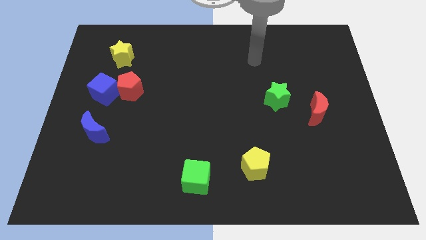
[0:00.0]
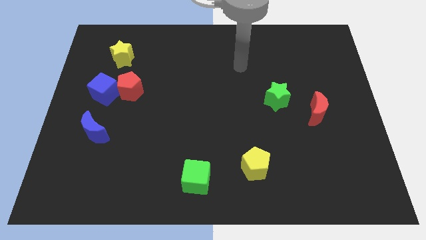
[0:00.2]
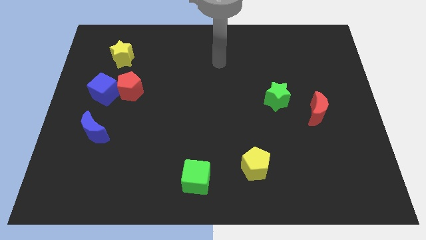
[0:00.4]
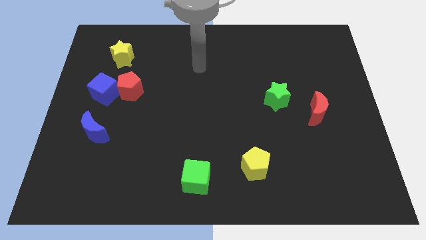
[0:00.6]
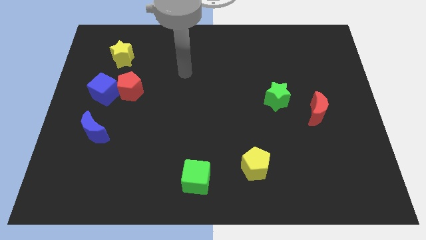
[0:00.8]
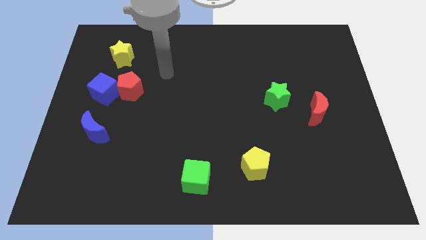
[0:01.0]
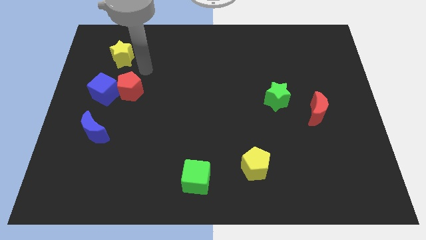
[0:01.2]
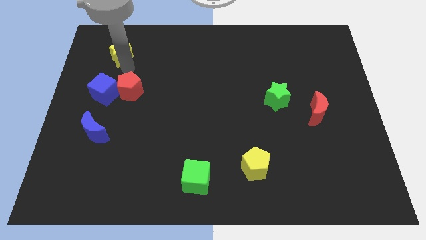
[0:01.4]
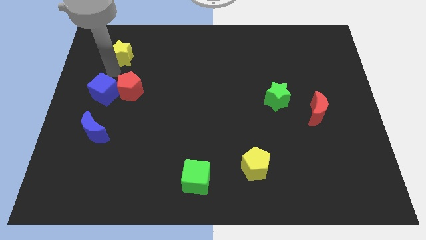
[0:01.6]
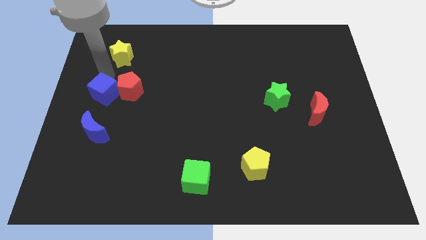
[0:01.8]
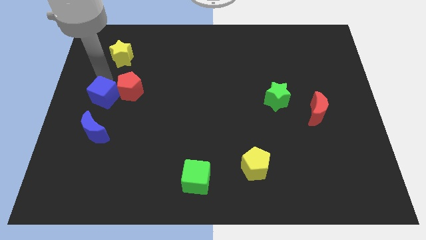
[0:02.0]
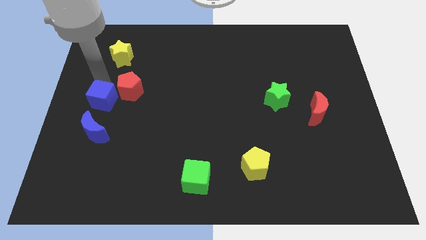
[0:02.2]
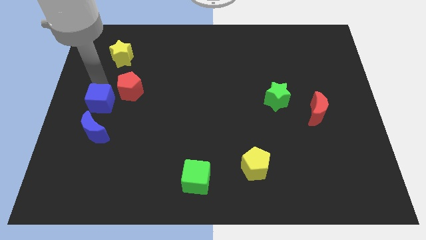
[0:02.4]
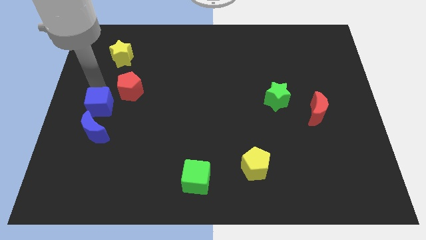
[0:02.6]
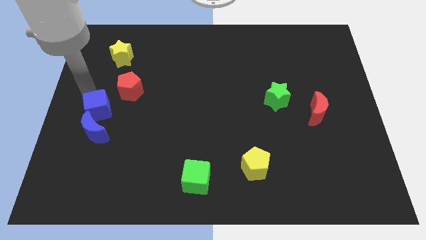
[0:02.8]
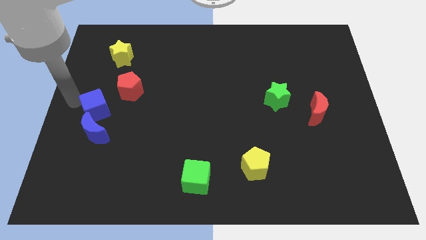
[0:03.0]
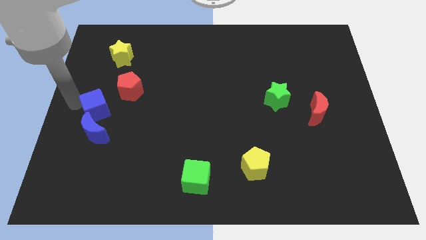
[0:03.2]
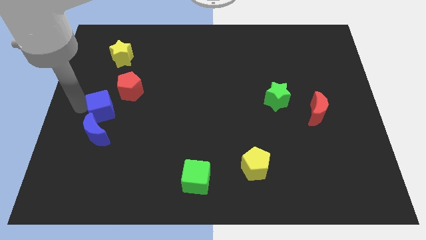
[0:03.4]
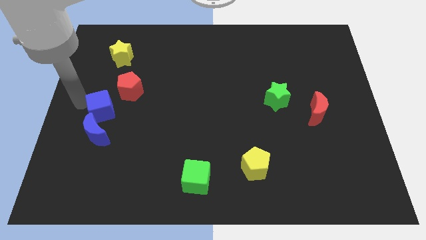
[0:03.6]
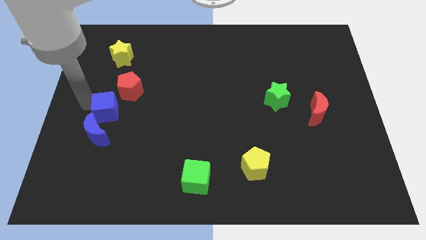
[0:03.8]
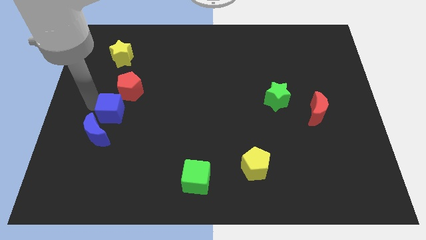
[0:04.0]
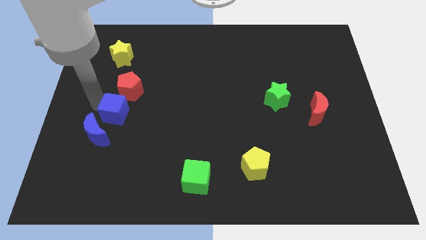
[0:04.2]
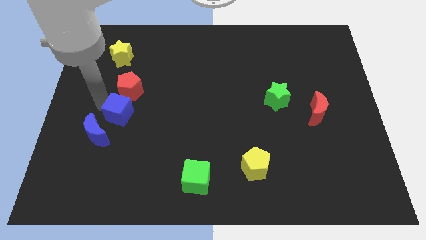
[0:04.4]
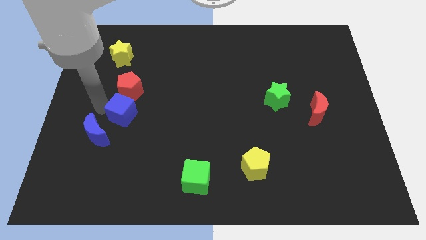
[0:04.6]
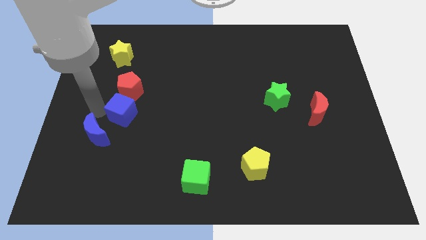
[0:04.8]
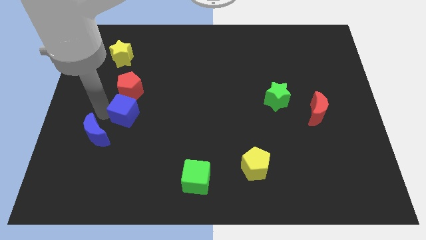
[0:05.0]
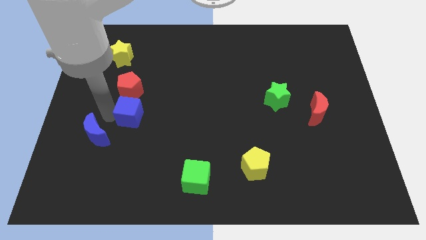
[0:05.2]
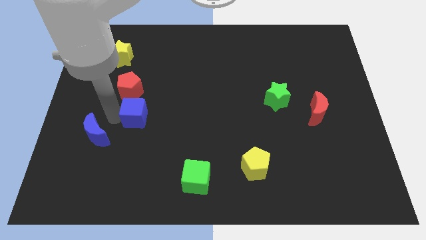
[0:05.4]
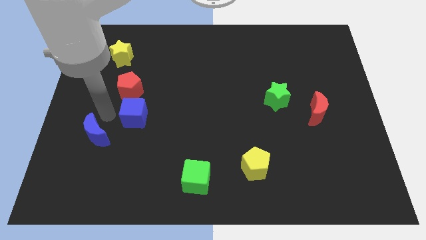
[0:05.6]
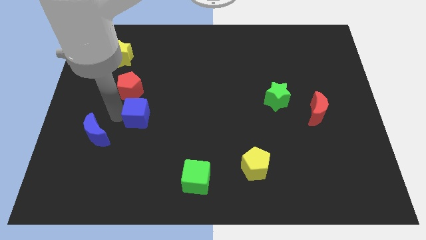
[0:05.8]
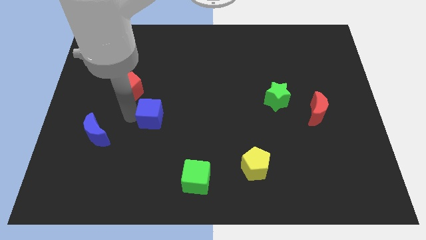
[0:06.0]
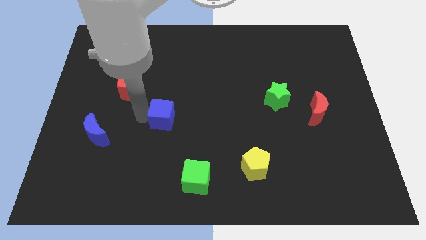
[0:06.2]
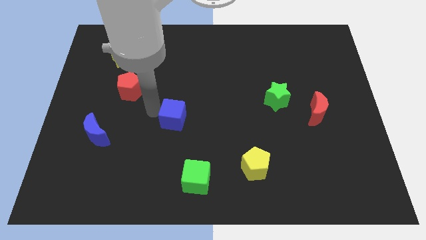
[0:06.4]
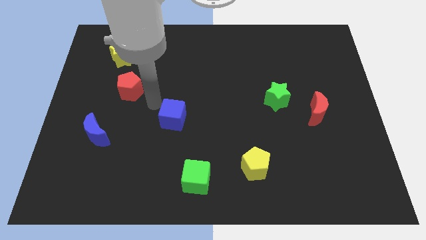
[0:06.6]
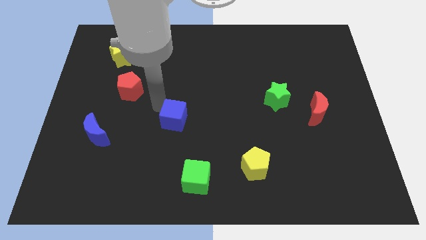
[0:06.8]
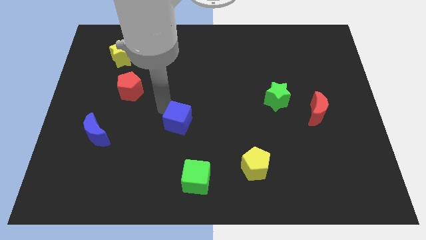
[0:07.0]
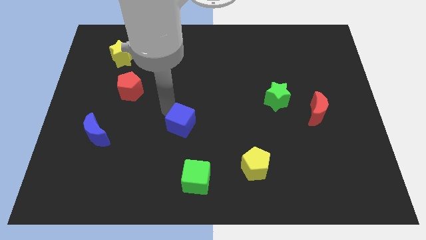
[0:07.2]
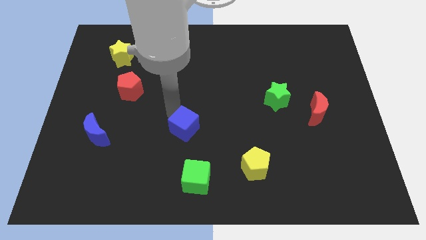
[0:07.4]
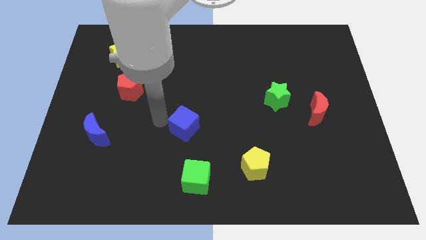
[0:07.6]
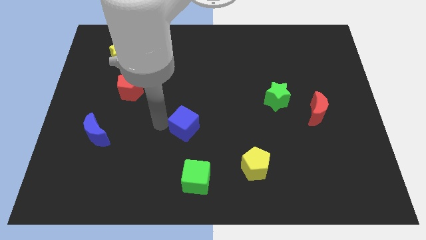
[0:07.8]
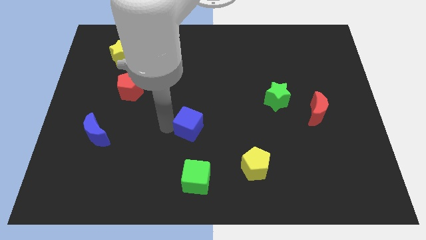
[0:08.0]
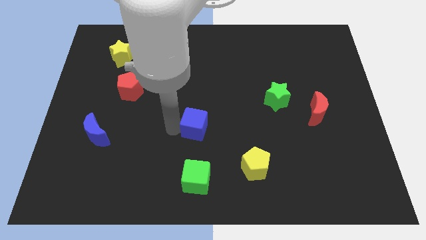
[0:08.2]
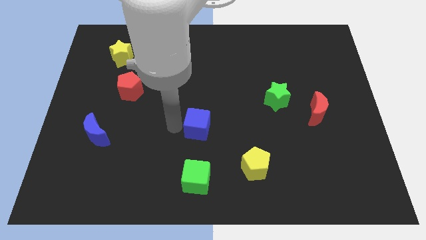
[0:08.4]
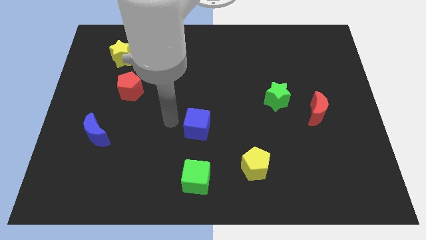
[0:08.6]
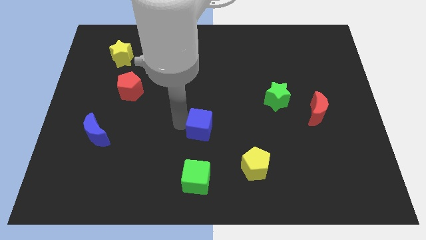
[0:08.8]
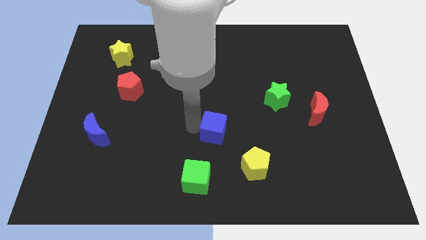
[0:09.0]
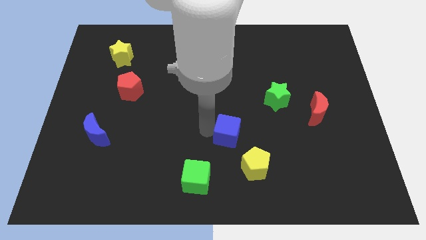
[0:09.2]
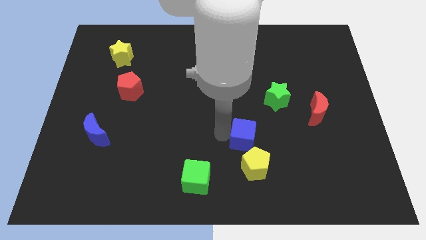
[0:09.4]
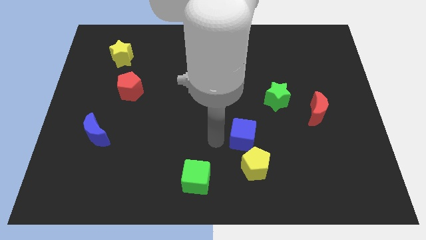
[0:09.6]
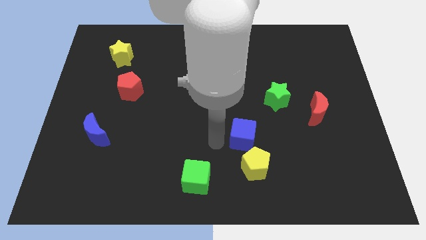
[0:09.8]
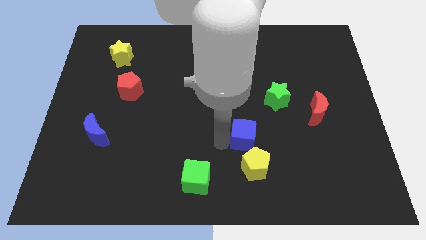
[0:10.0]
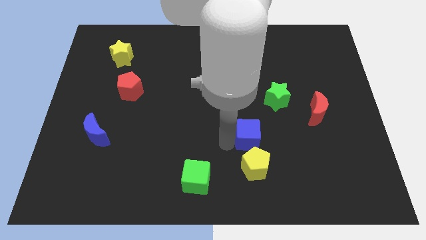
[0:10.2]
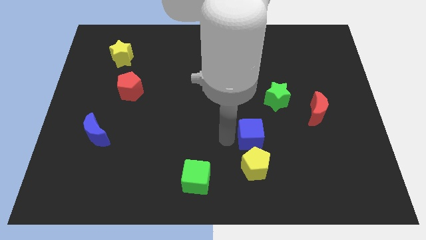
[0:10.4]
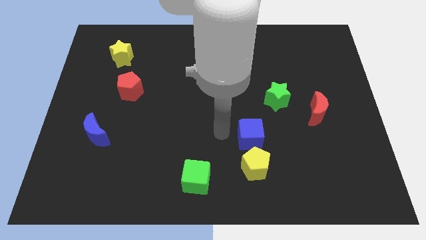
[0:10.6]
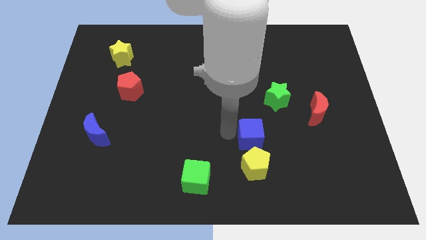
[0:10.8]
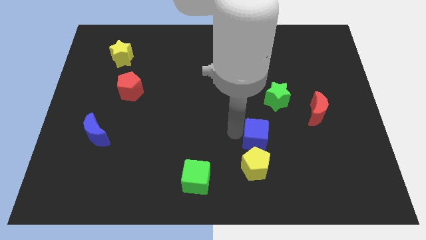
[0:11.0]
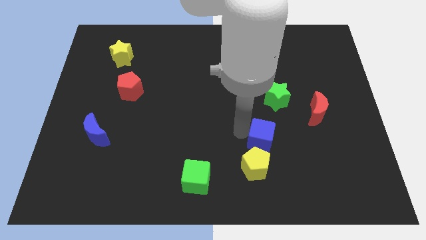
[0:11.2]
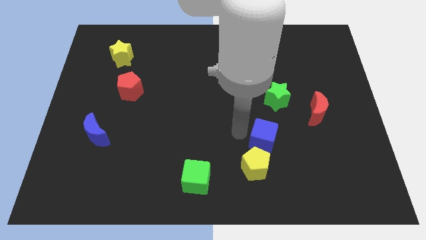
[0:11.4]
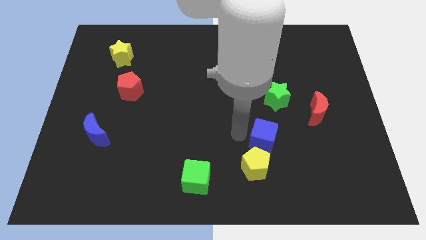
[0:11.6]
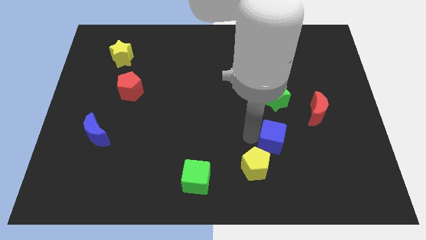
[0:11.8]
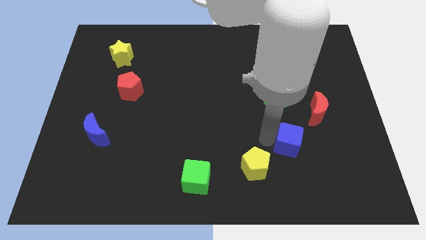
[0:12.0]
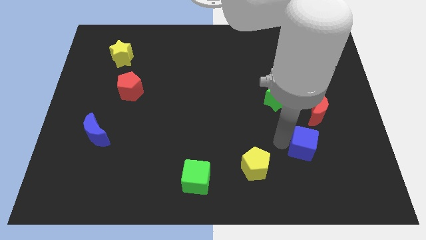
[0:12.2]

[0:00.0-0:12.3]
put the blue cube to the bottom side of the red moon

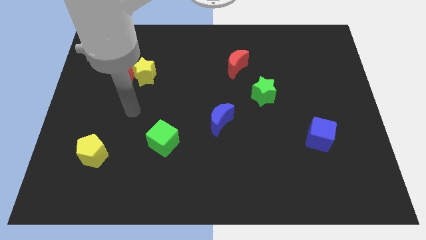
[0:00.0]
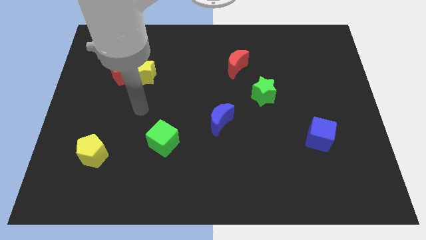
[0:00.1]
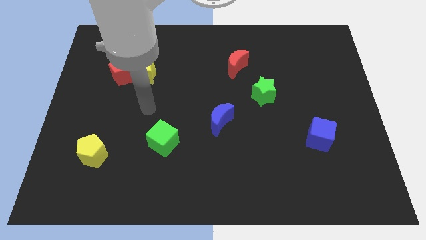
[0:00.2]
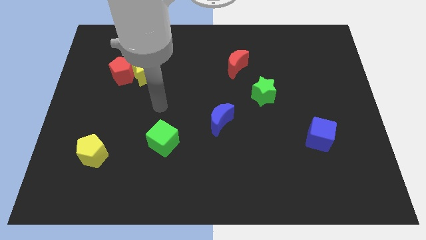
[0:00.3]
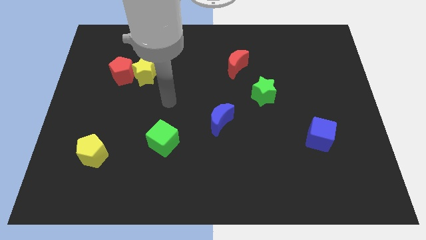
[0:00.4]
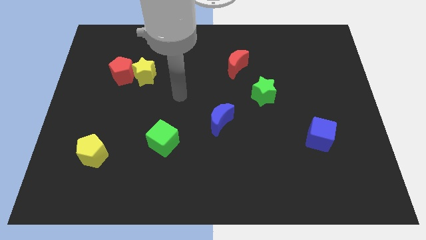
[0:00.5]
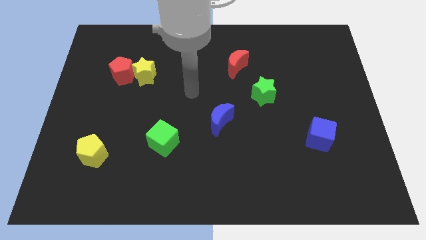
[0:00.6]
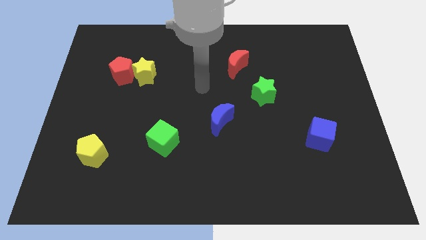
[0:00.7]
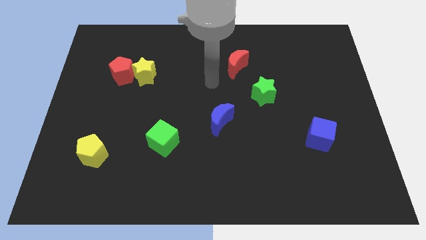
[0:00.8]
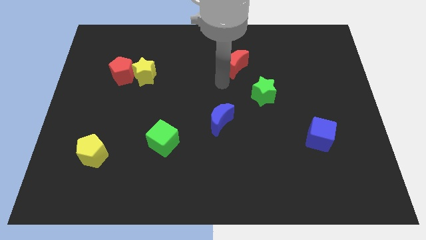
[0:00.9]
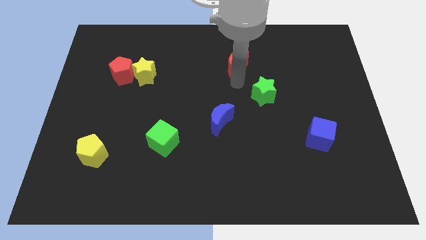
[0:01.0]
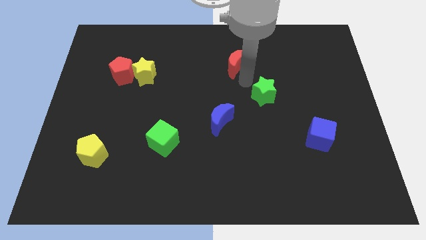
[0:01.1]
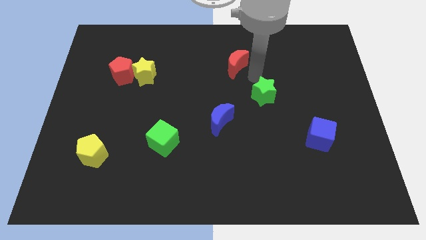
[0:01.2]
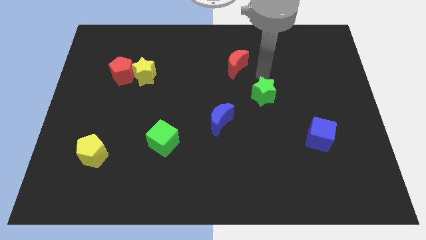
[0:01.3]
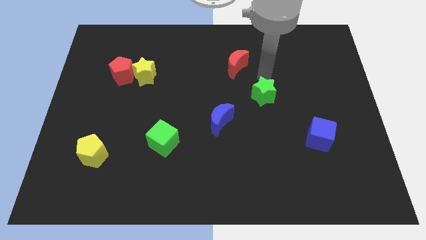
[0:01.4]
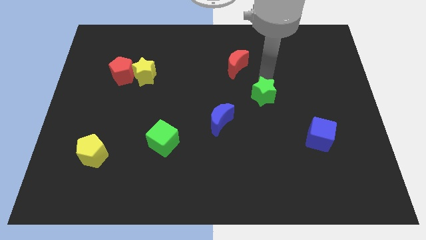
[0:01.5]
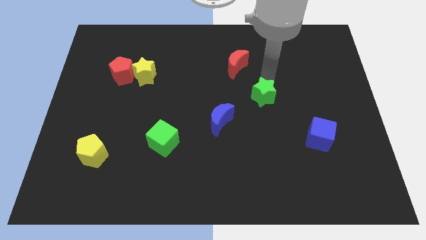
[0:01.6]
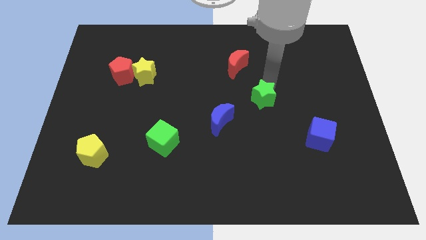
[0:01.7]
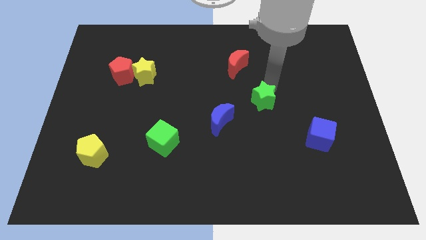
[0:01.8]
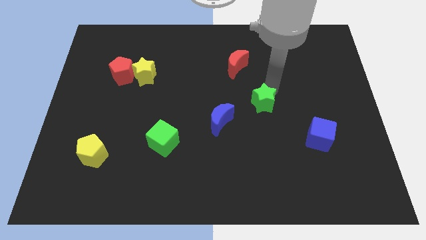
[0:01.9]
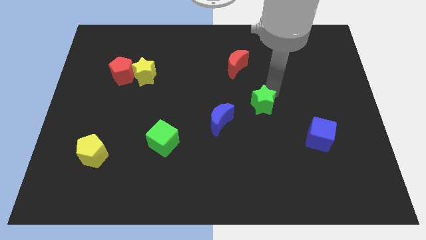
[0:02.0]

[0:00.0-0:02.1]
push the green star just right of the blue moon
